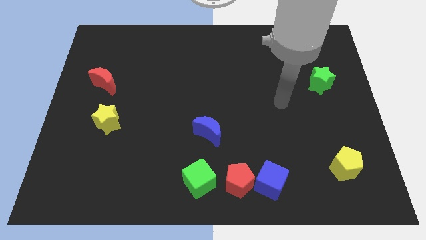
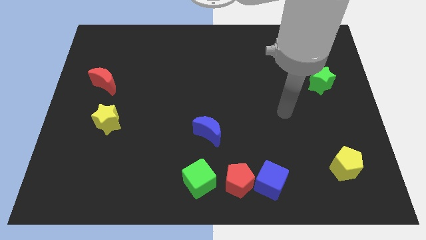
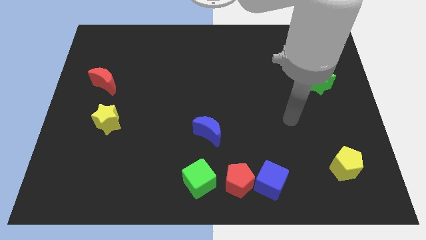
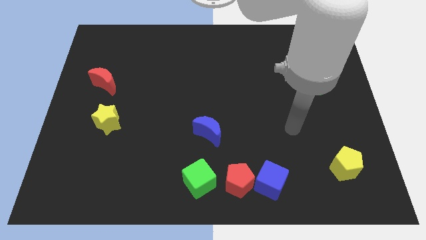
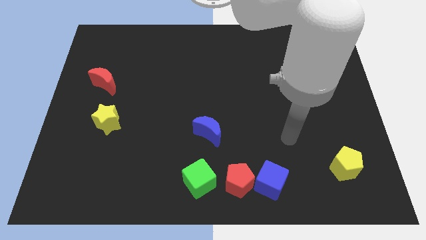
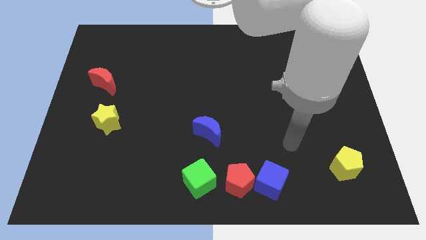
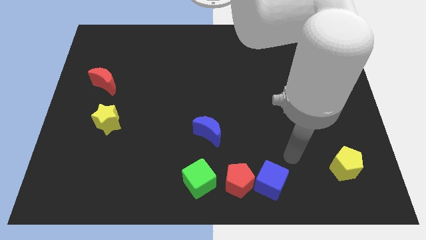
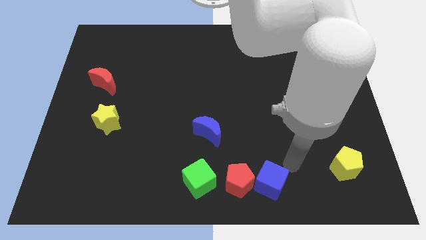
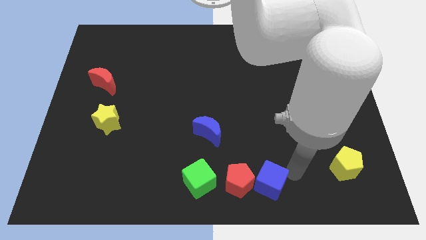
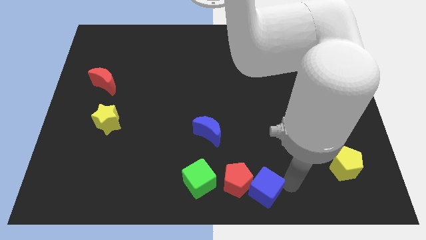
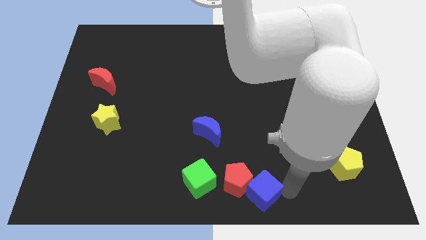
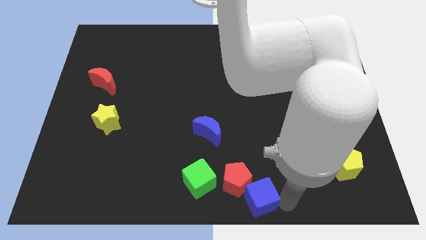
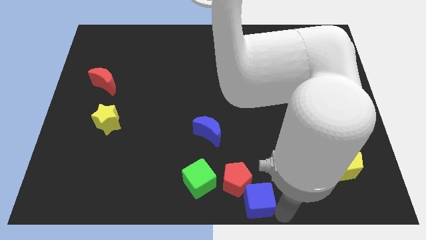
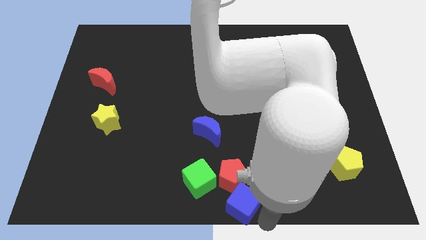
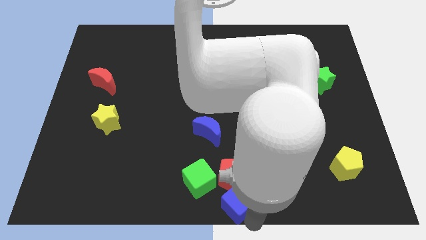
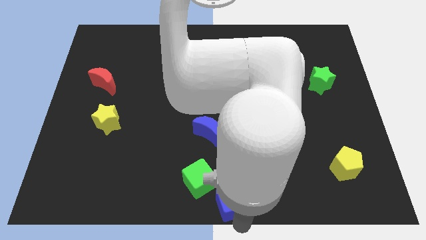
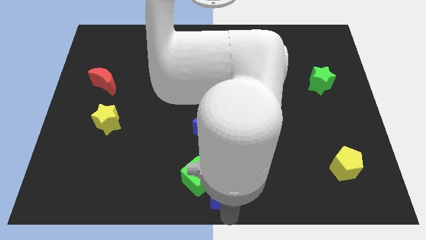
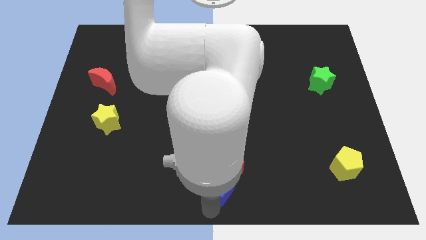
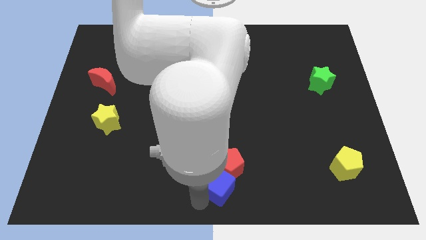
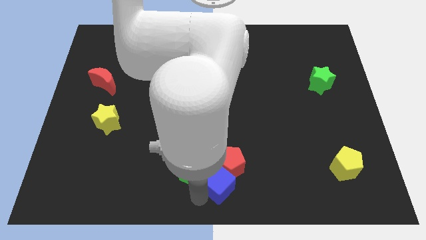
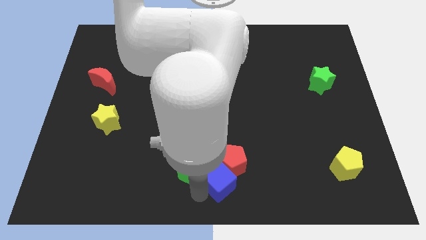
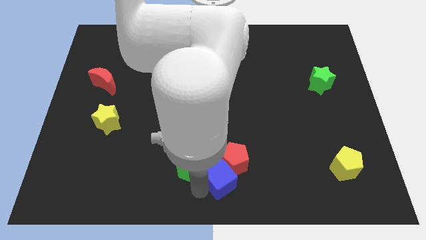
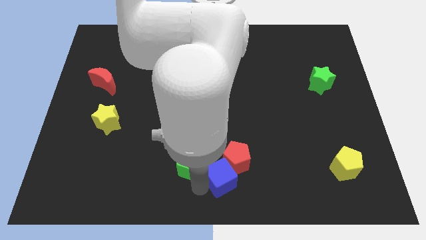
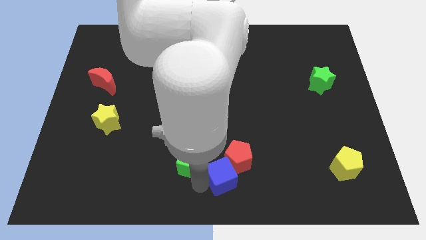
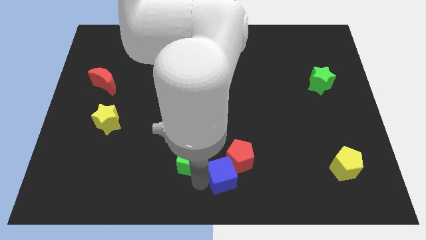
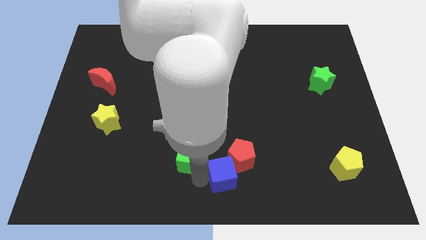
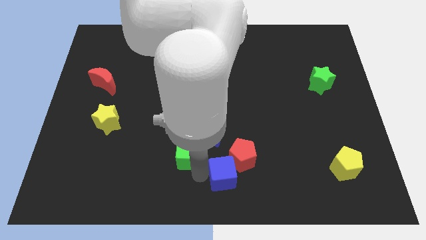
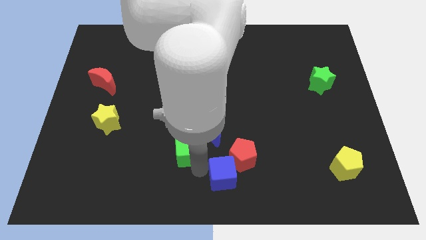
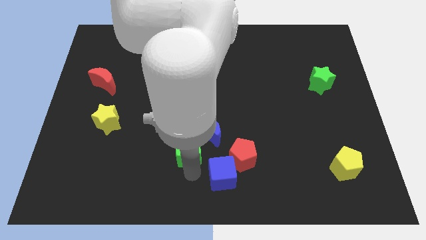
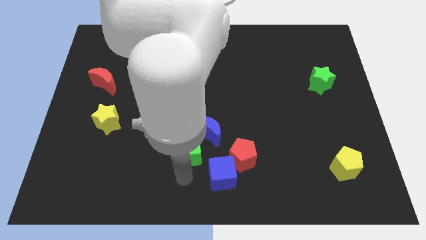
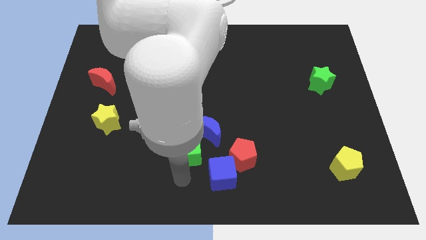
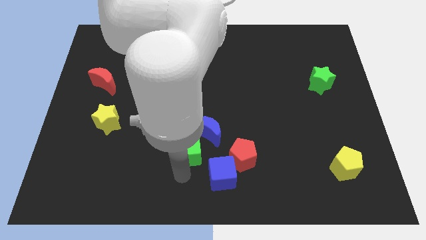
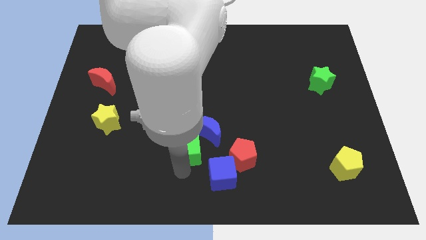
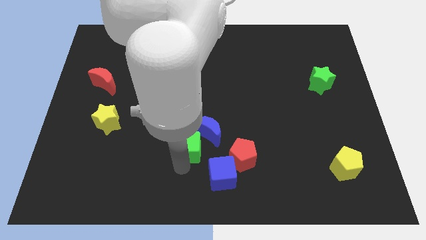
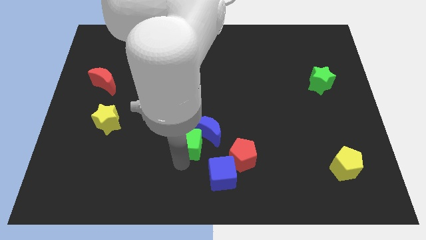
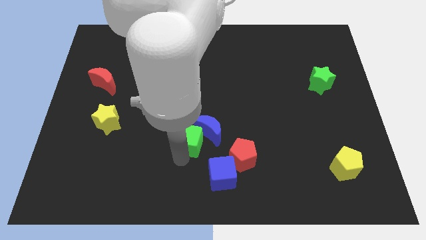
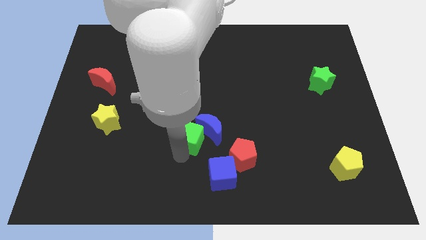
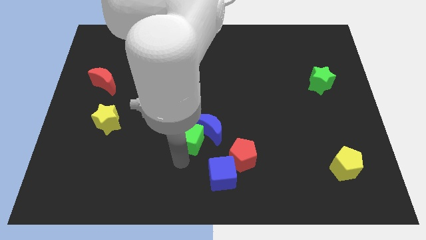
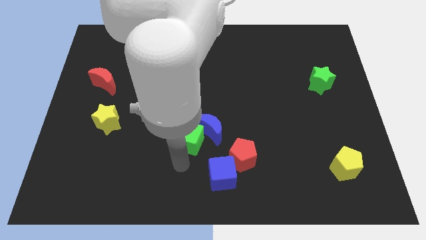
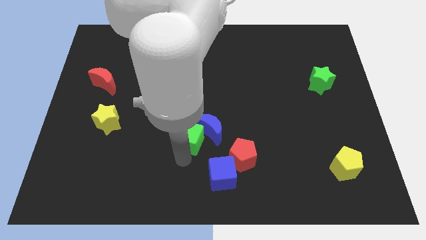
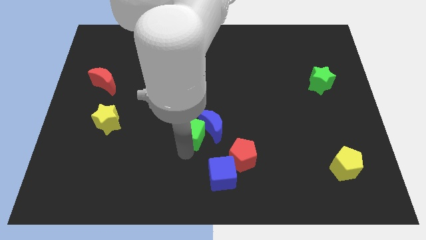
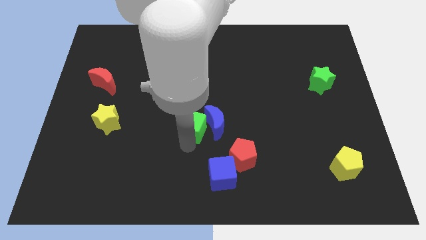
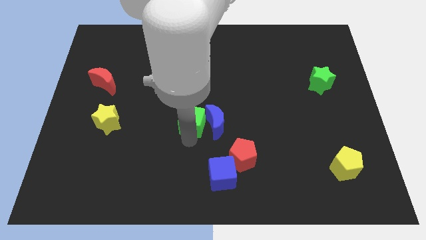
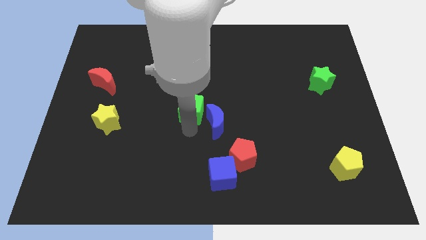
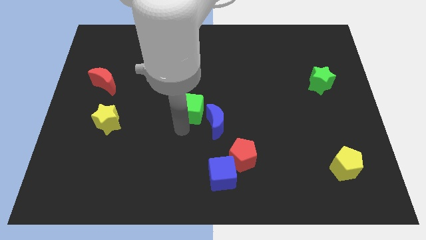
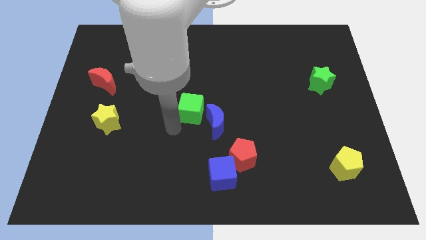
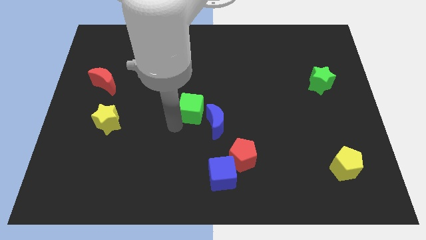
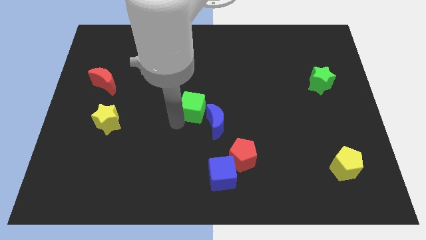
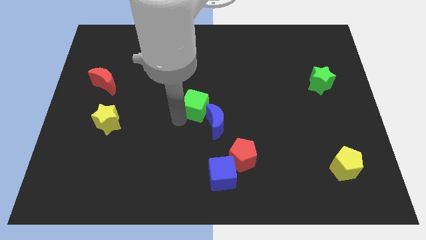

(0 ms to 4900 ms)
push the green cube to the top of the blue moon

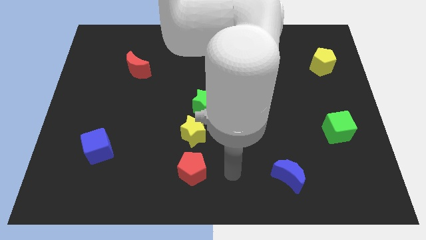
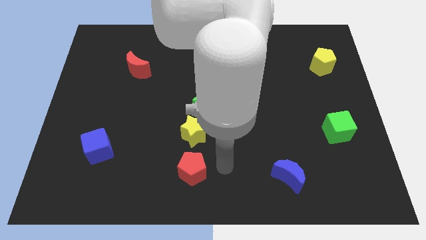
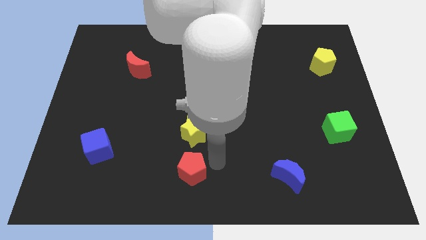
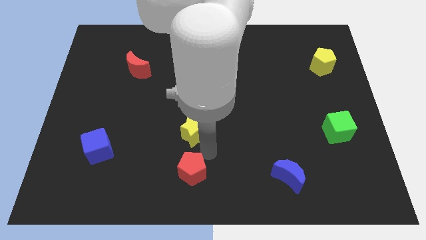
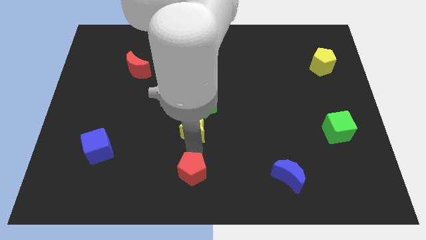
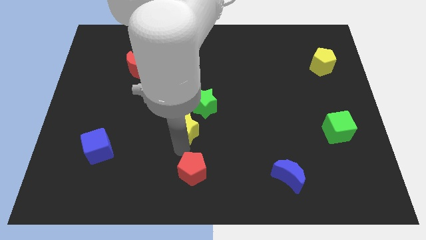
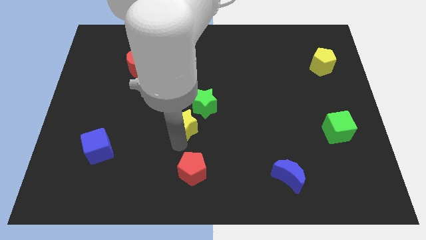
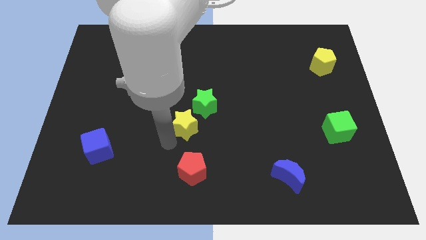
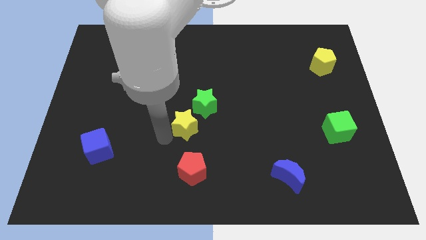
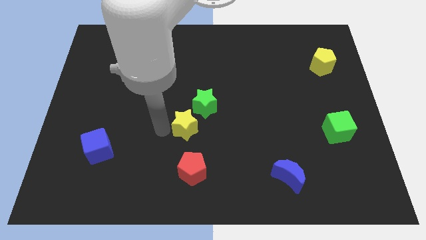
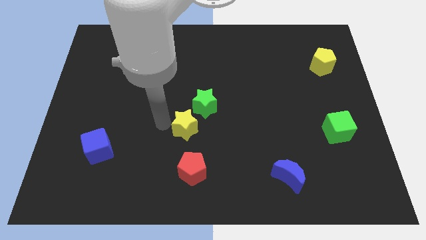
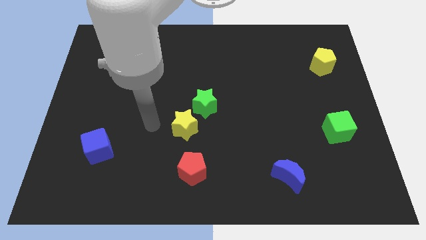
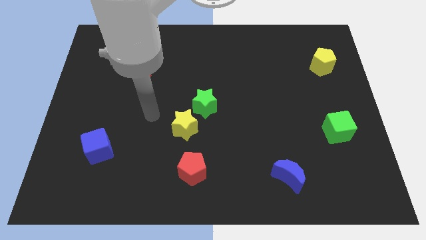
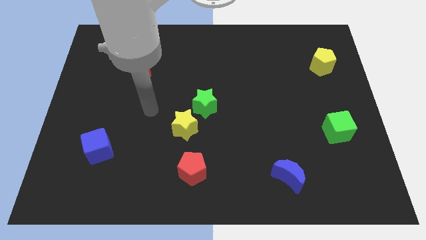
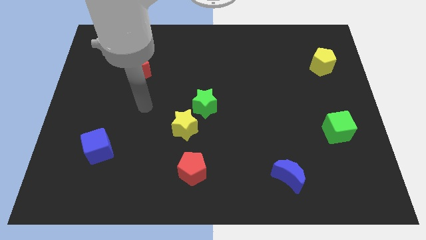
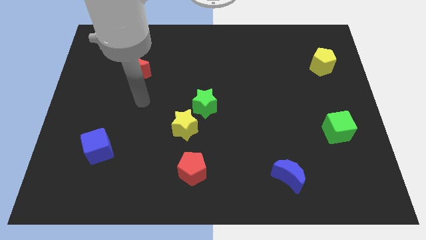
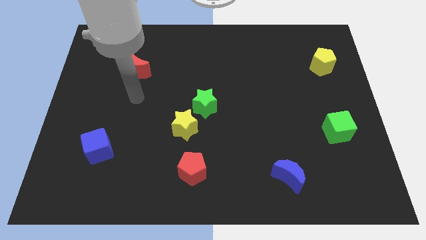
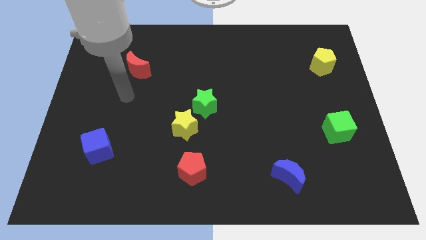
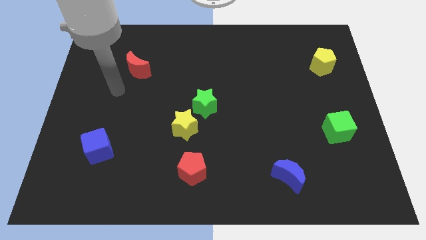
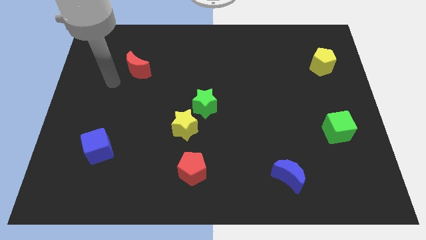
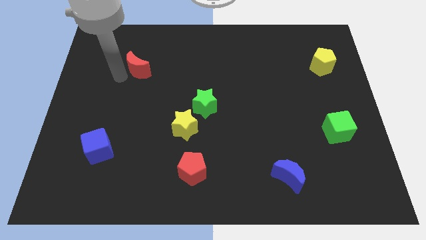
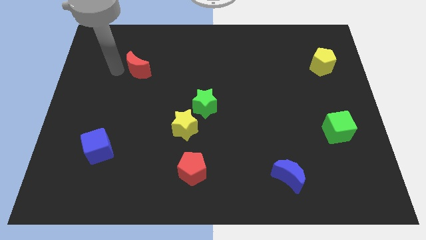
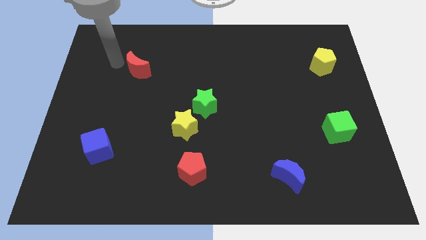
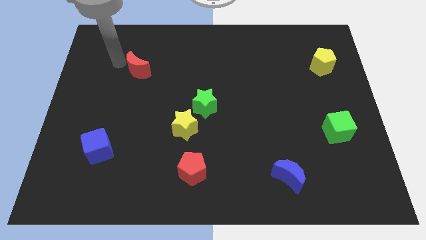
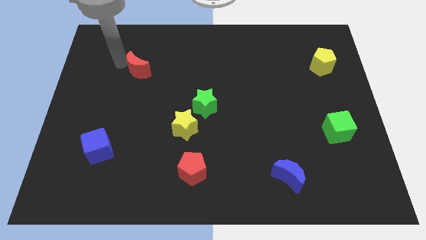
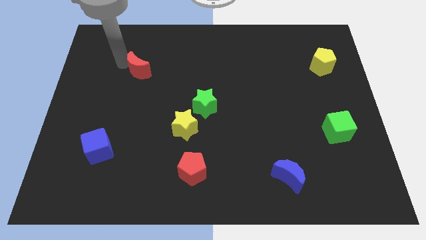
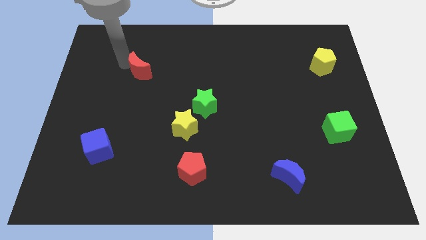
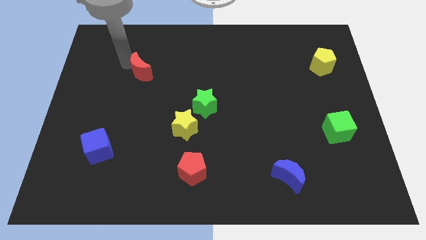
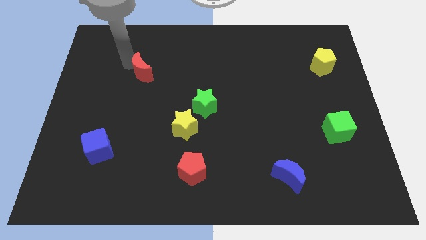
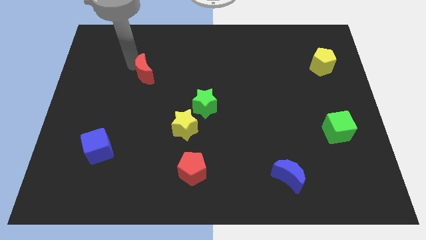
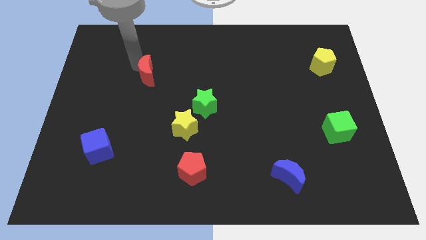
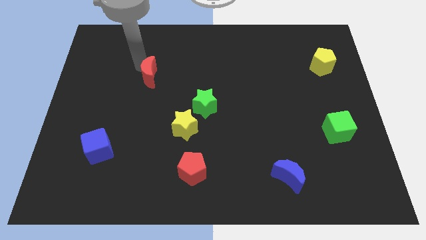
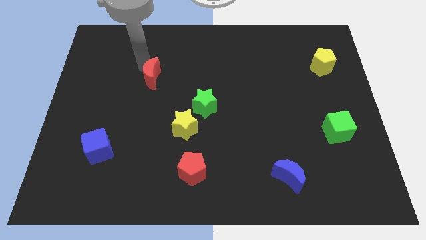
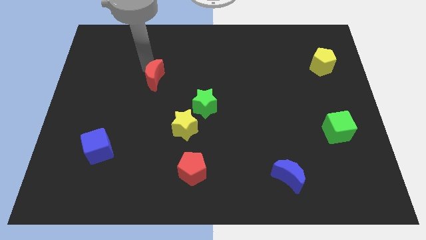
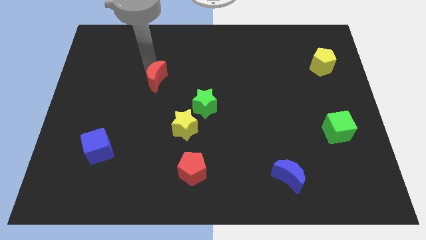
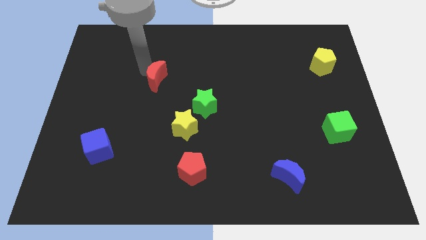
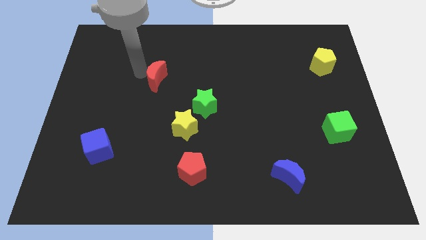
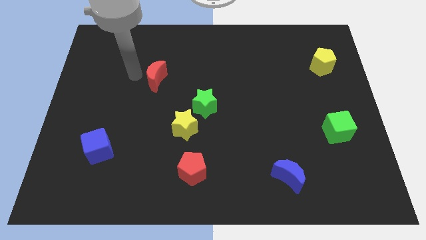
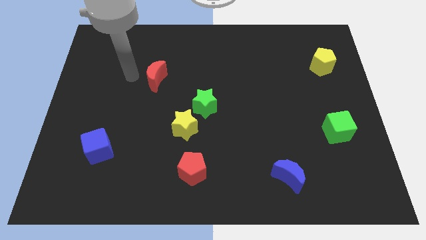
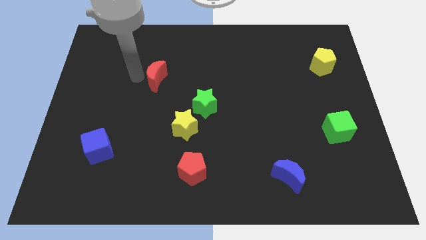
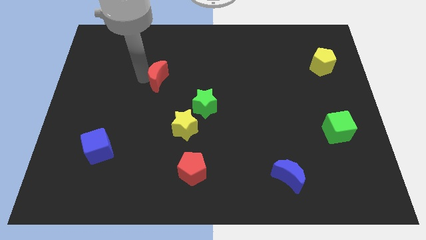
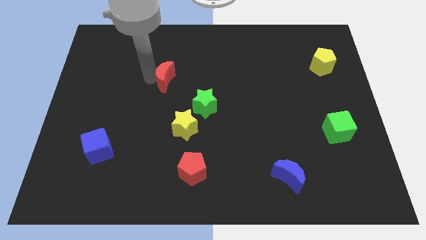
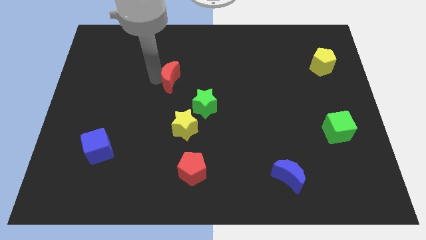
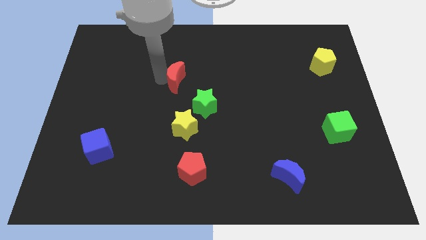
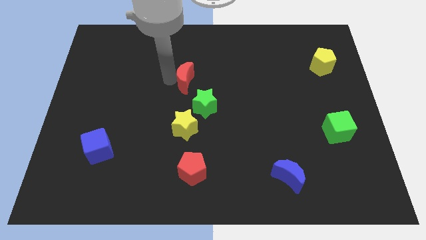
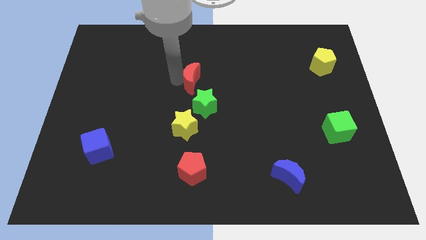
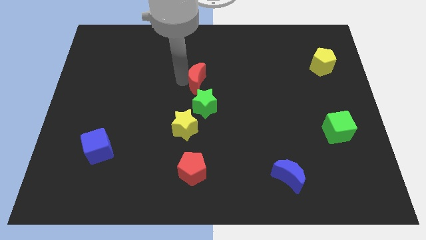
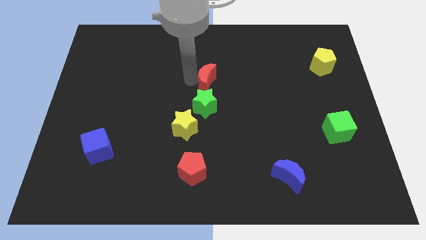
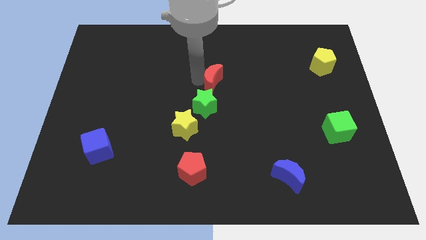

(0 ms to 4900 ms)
push the red moon to the top right of the green star
